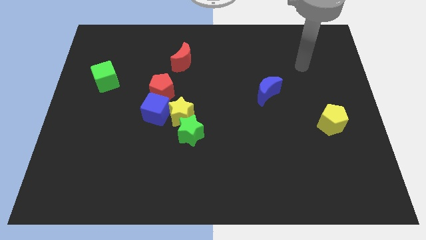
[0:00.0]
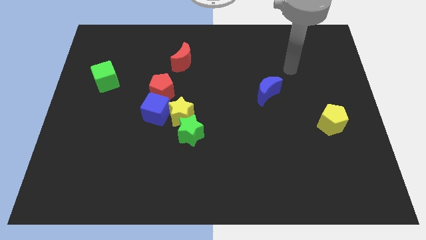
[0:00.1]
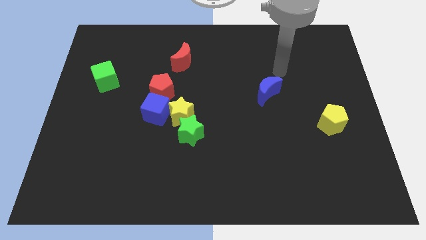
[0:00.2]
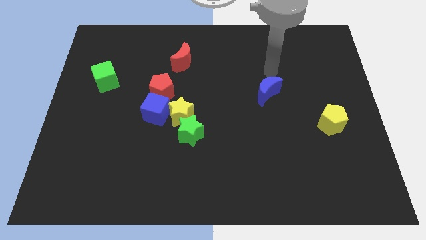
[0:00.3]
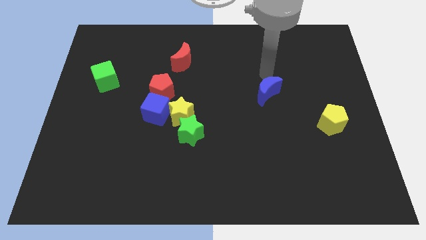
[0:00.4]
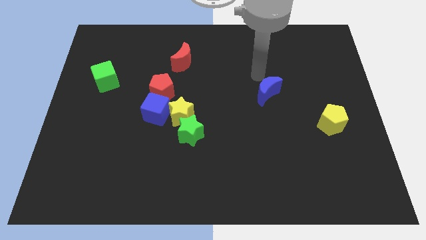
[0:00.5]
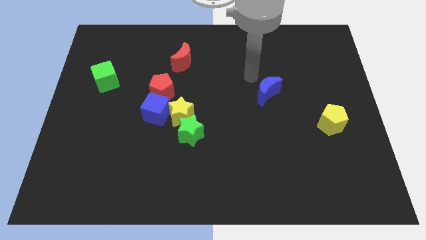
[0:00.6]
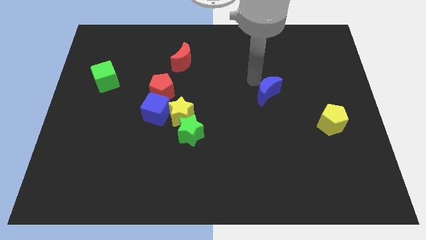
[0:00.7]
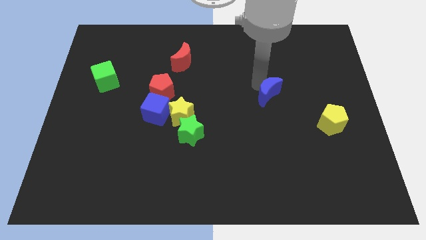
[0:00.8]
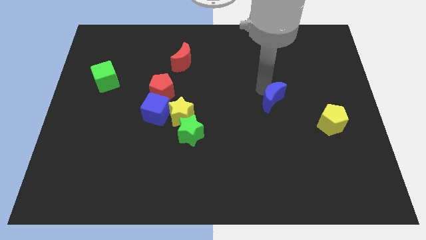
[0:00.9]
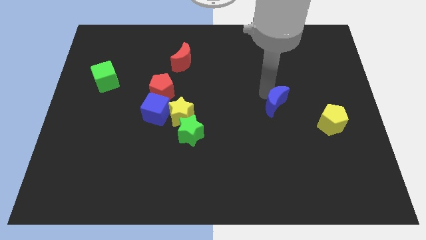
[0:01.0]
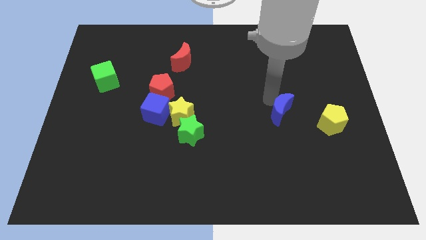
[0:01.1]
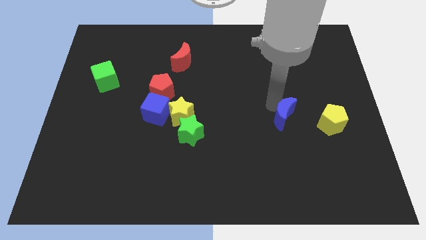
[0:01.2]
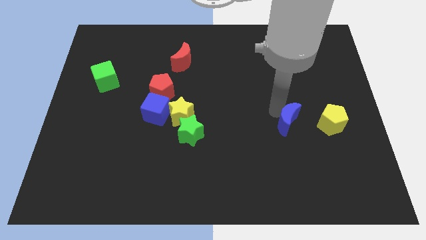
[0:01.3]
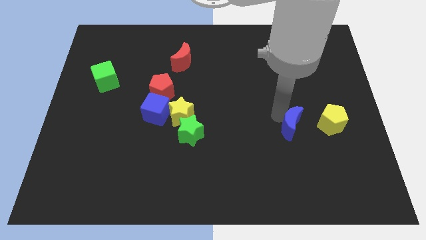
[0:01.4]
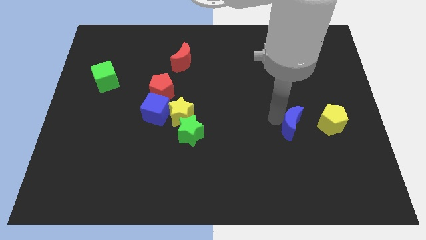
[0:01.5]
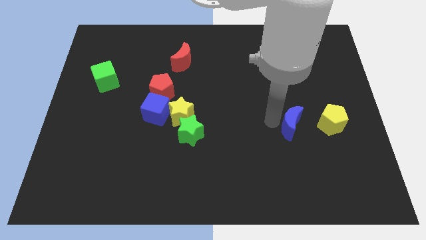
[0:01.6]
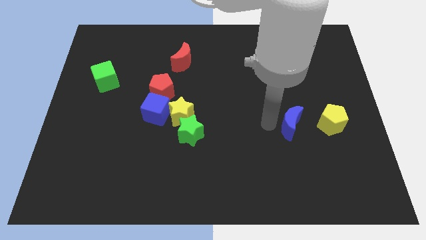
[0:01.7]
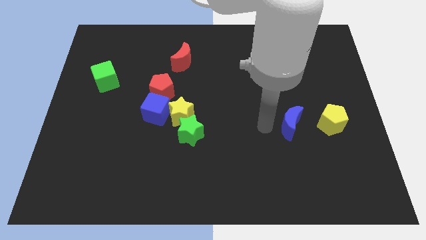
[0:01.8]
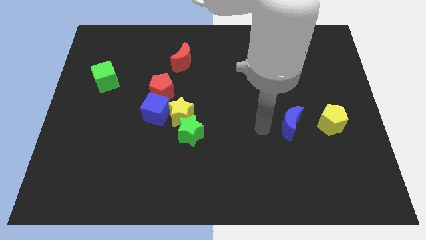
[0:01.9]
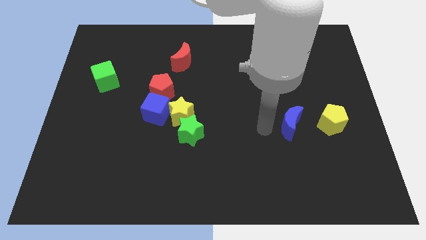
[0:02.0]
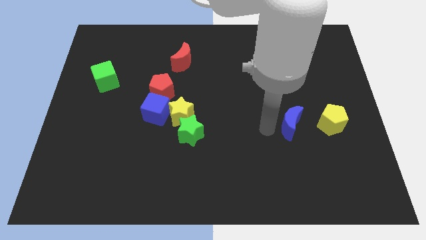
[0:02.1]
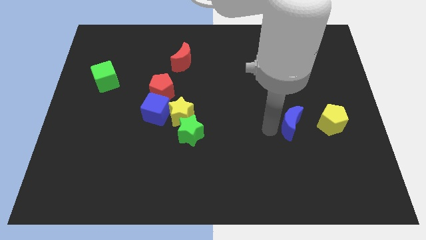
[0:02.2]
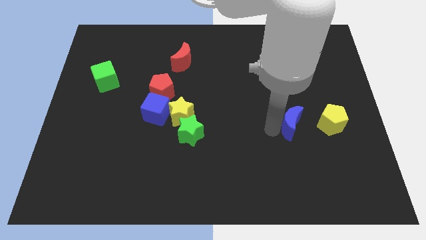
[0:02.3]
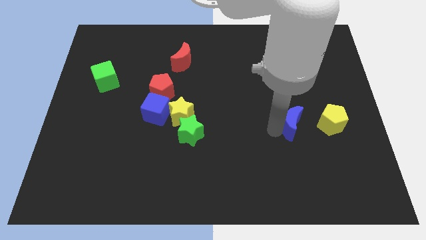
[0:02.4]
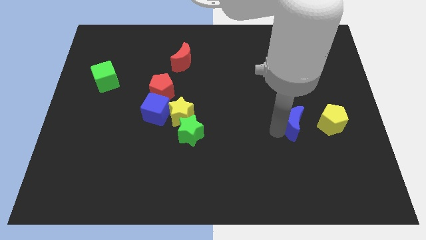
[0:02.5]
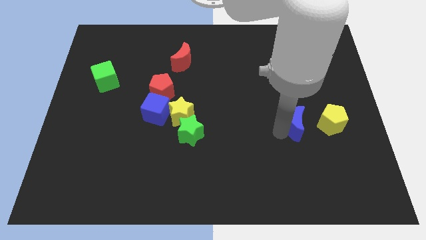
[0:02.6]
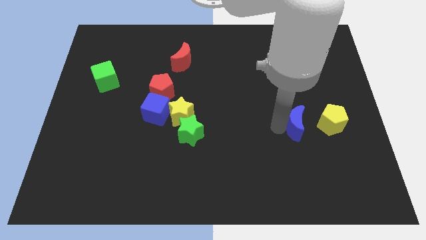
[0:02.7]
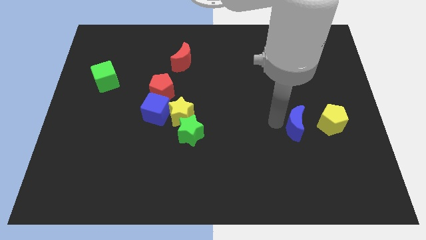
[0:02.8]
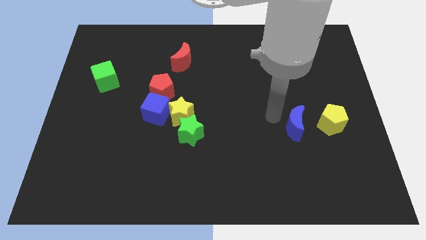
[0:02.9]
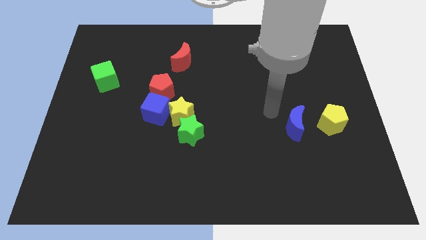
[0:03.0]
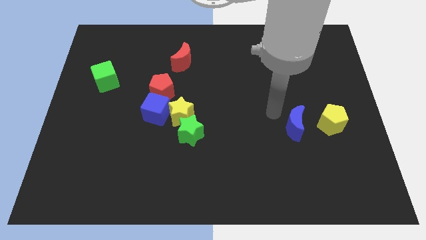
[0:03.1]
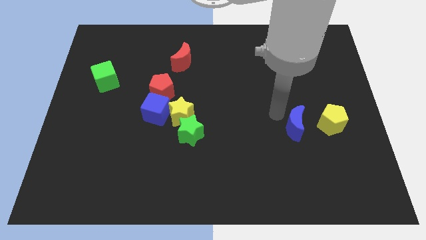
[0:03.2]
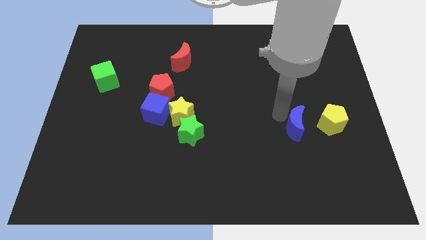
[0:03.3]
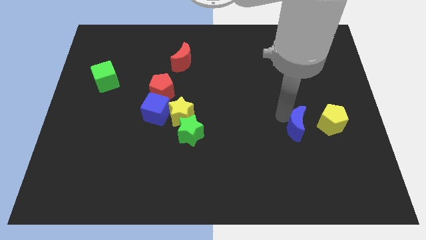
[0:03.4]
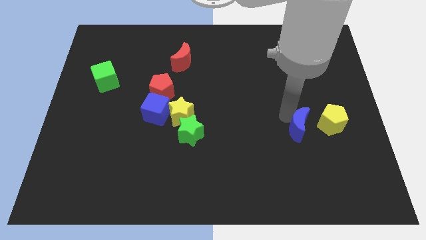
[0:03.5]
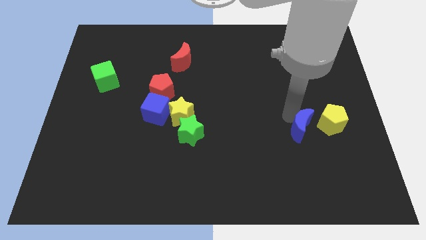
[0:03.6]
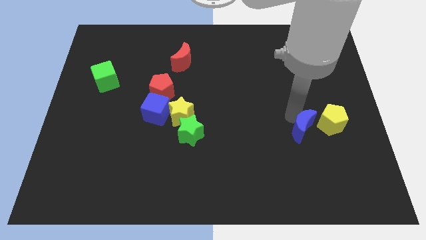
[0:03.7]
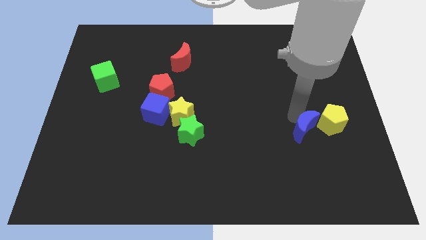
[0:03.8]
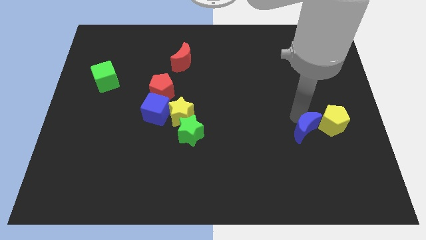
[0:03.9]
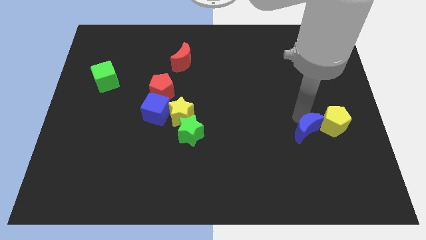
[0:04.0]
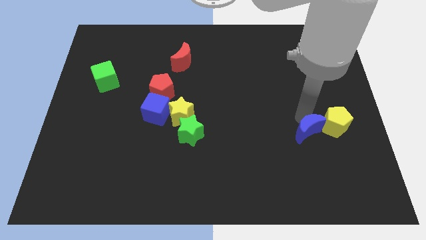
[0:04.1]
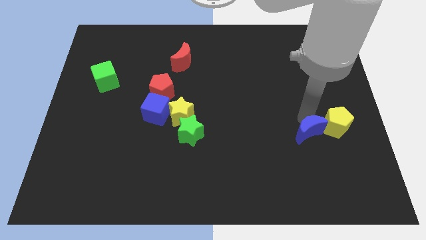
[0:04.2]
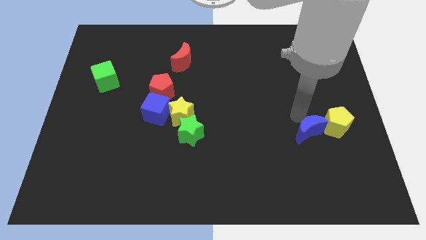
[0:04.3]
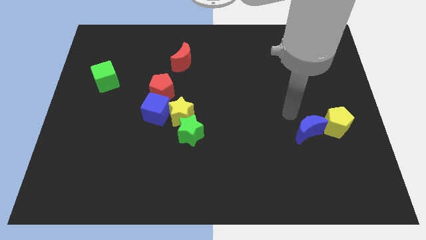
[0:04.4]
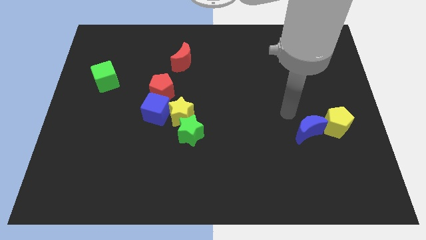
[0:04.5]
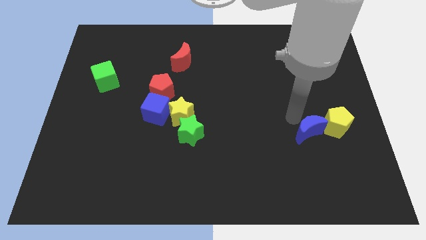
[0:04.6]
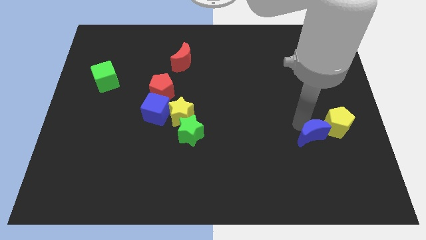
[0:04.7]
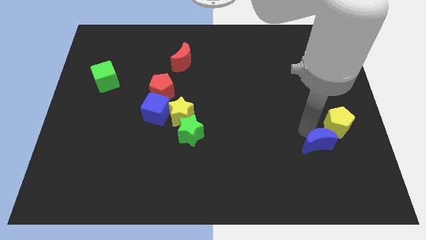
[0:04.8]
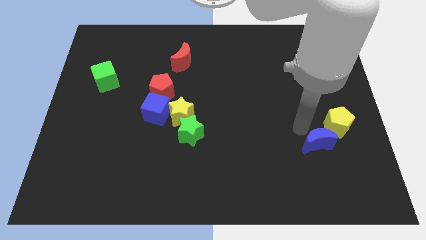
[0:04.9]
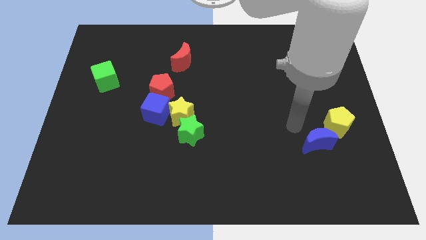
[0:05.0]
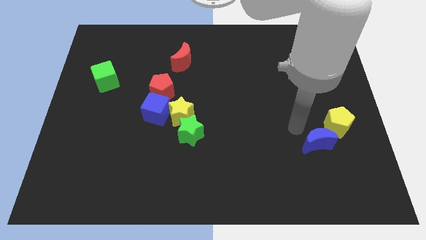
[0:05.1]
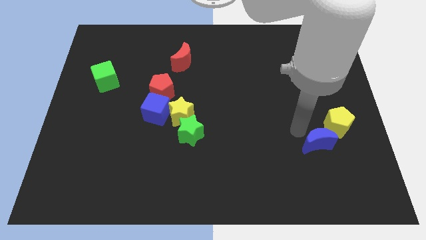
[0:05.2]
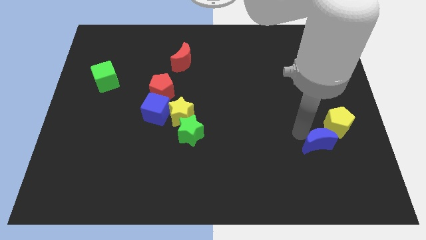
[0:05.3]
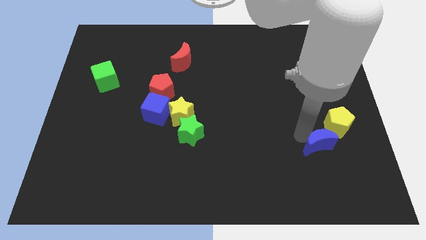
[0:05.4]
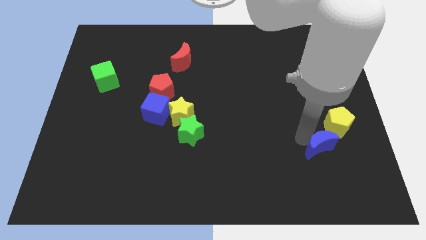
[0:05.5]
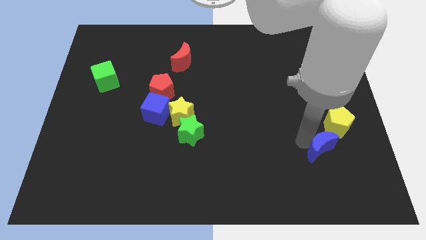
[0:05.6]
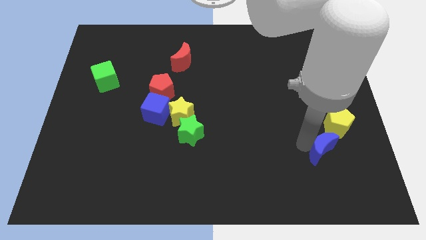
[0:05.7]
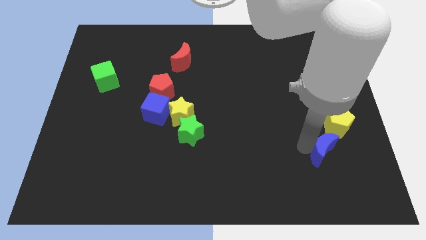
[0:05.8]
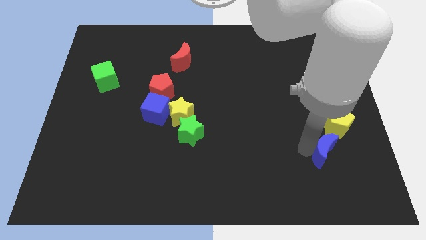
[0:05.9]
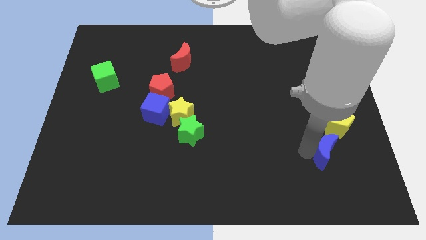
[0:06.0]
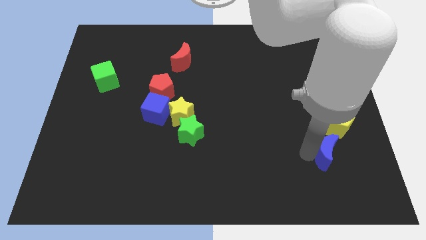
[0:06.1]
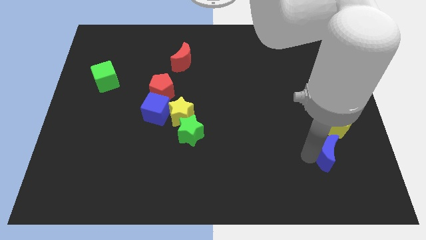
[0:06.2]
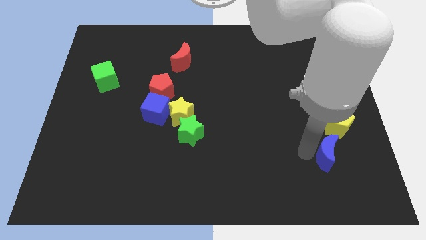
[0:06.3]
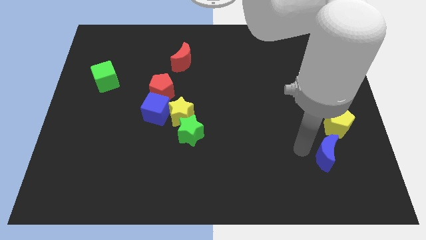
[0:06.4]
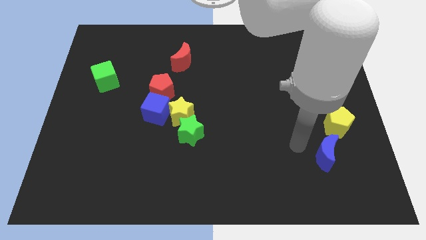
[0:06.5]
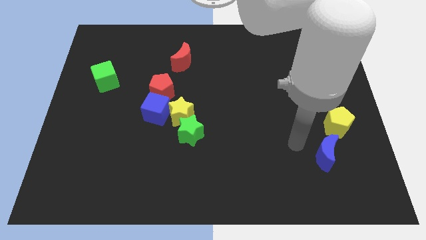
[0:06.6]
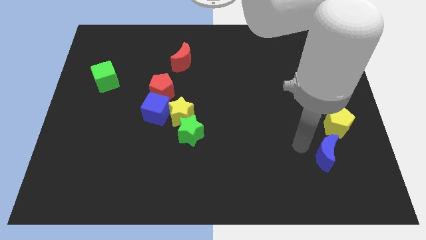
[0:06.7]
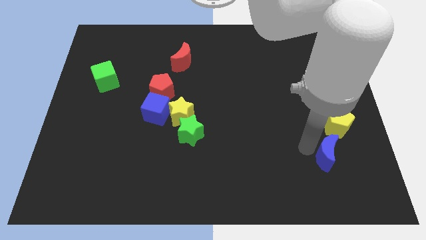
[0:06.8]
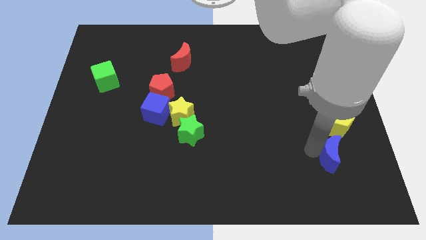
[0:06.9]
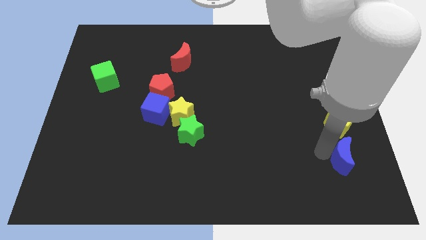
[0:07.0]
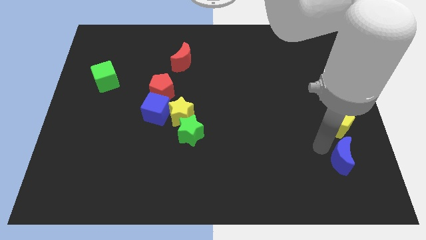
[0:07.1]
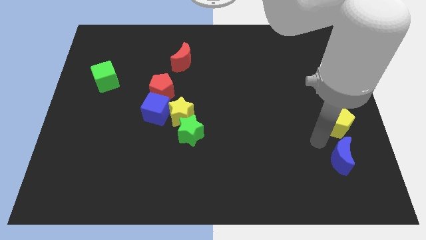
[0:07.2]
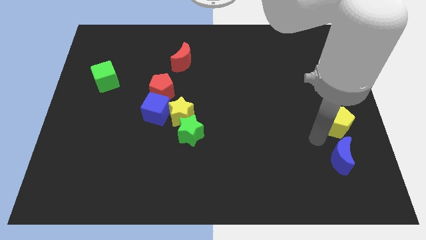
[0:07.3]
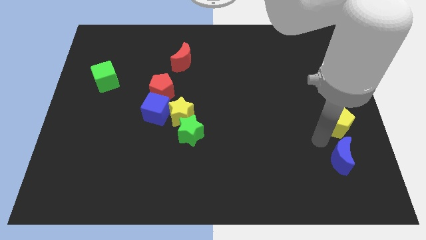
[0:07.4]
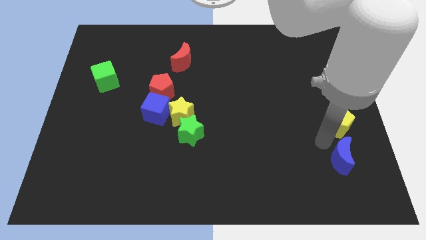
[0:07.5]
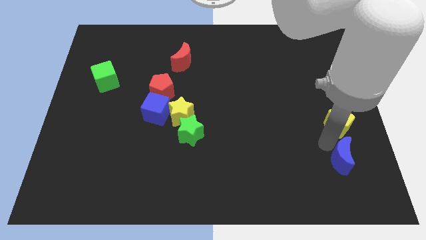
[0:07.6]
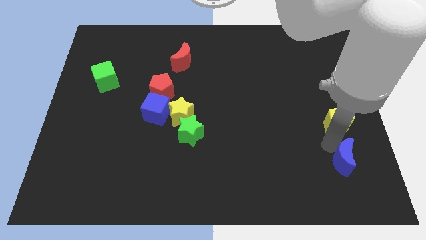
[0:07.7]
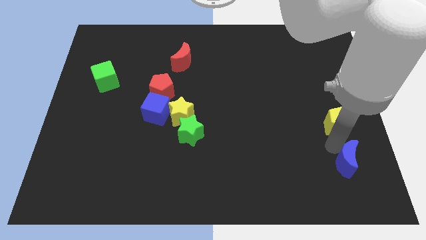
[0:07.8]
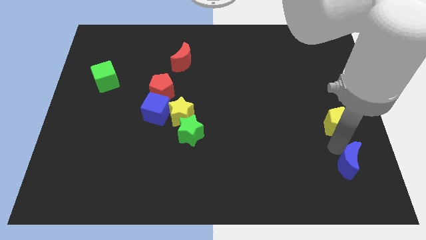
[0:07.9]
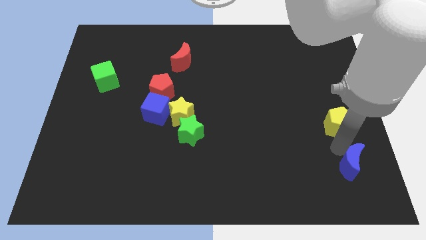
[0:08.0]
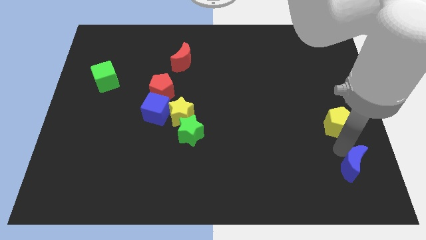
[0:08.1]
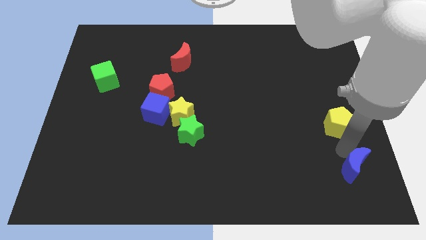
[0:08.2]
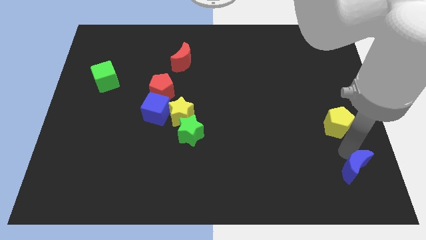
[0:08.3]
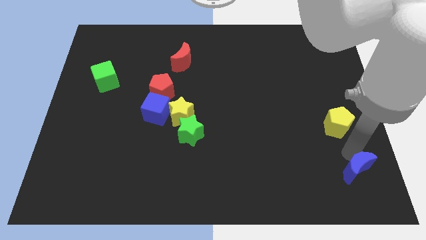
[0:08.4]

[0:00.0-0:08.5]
move the blue moon to the bottom right of the board
